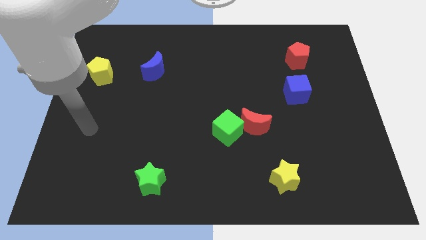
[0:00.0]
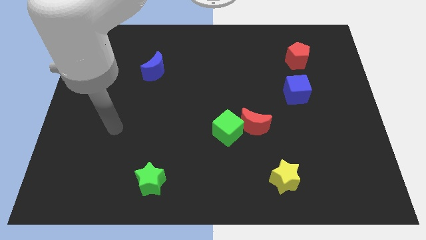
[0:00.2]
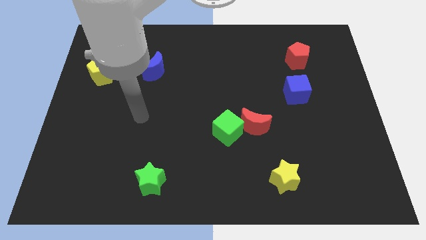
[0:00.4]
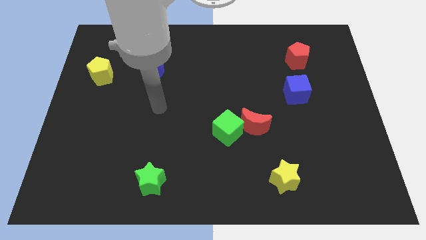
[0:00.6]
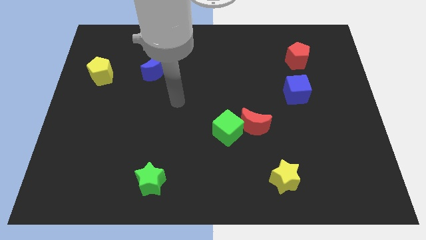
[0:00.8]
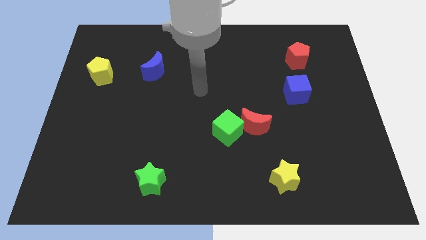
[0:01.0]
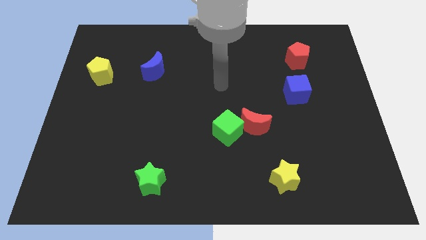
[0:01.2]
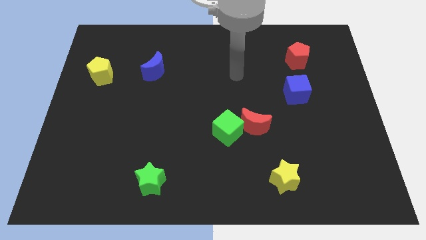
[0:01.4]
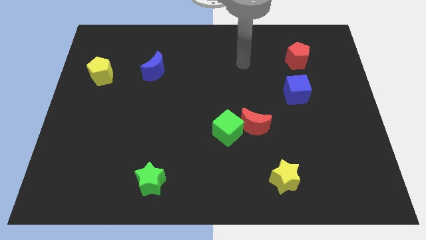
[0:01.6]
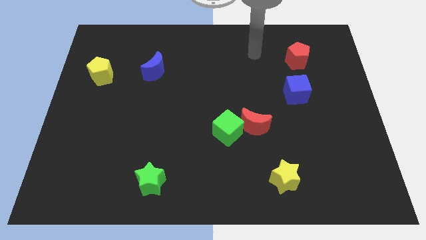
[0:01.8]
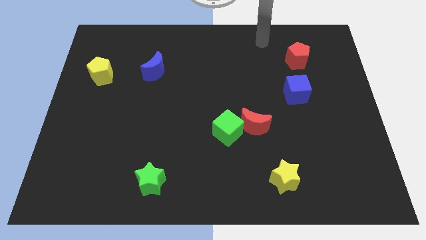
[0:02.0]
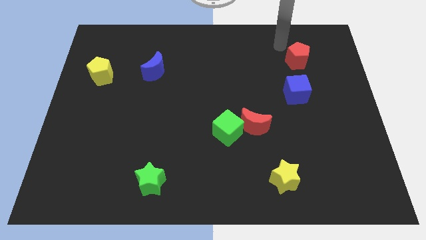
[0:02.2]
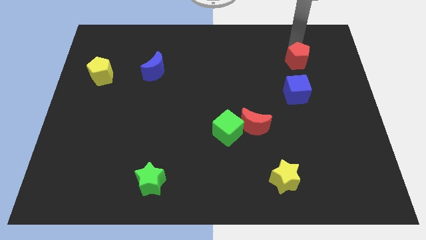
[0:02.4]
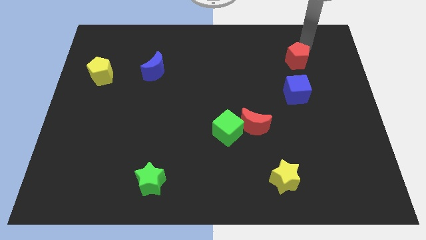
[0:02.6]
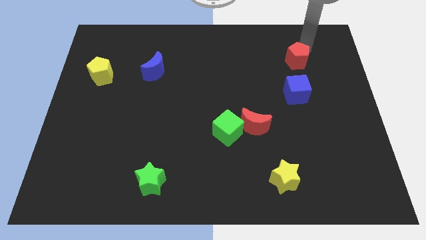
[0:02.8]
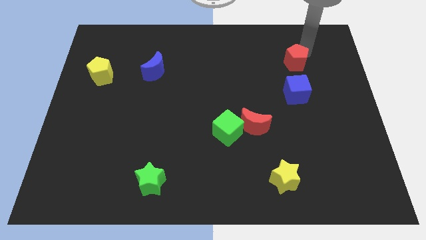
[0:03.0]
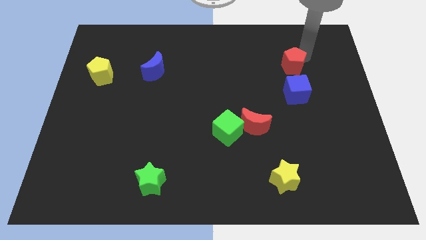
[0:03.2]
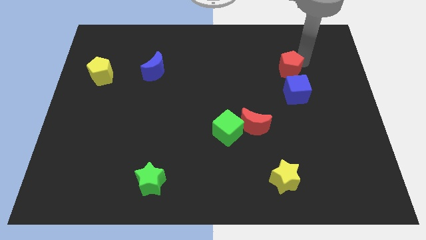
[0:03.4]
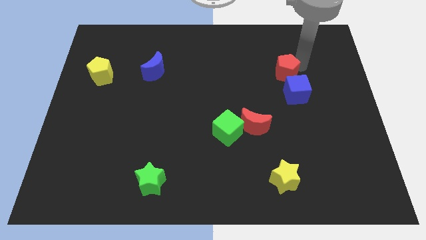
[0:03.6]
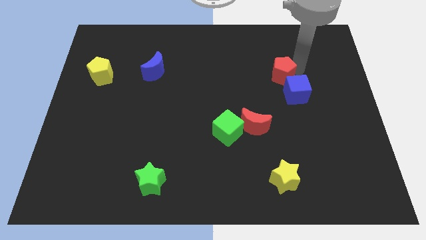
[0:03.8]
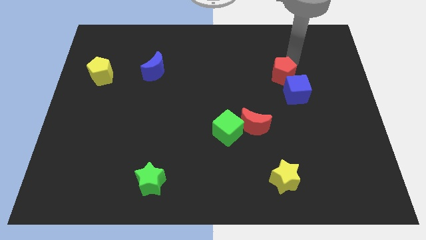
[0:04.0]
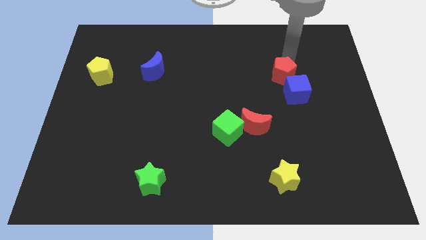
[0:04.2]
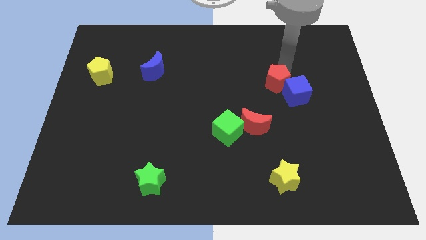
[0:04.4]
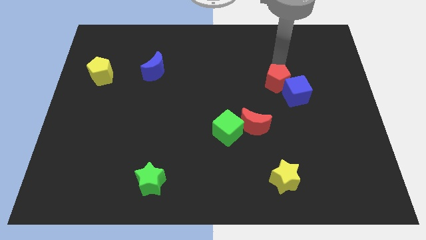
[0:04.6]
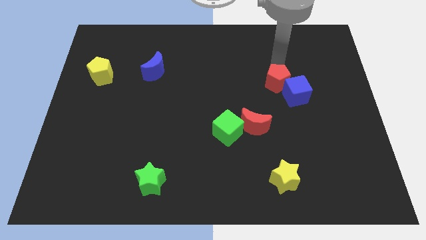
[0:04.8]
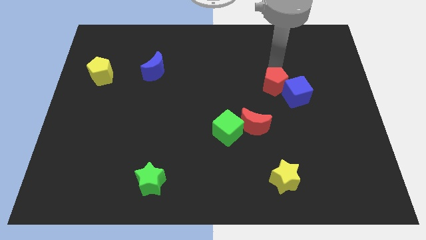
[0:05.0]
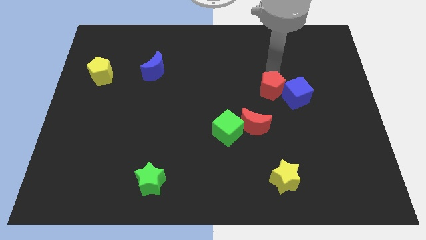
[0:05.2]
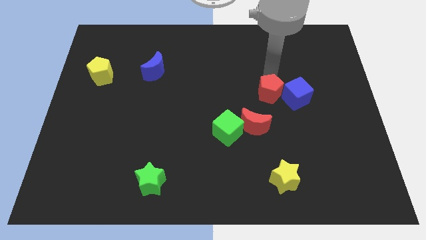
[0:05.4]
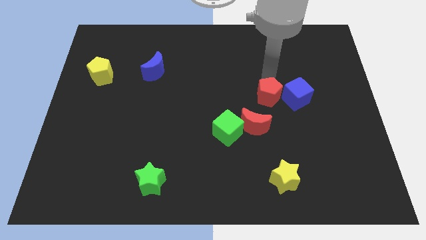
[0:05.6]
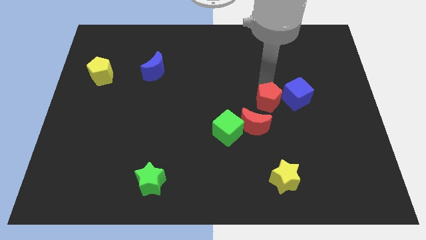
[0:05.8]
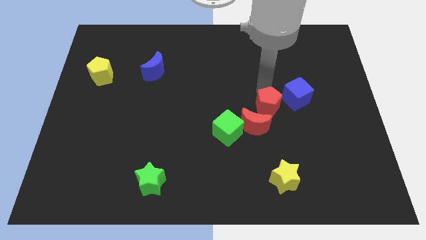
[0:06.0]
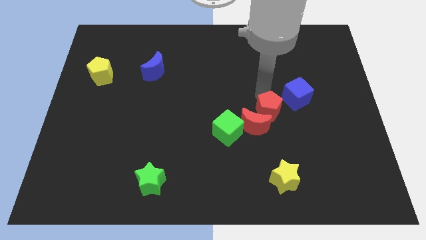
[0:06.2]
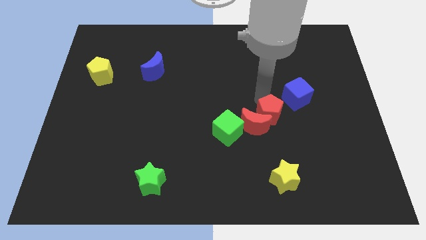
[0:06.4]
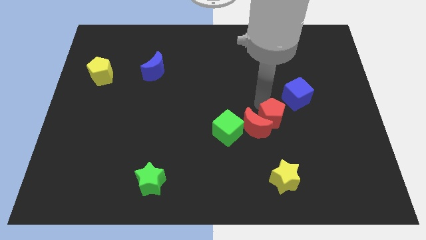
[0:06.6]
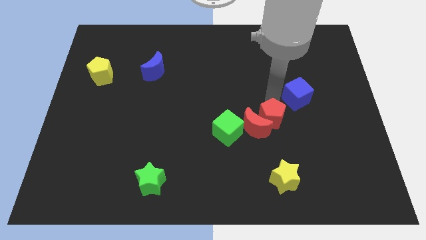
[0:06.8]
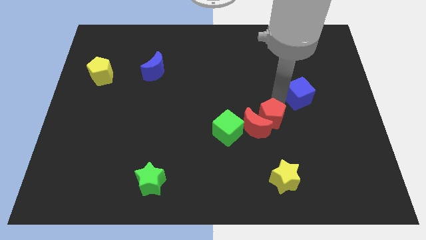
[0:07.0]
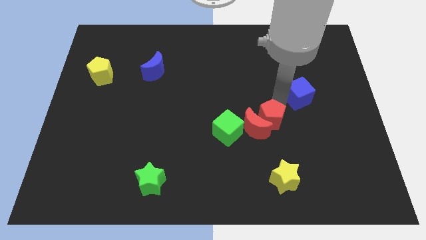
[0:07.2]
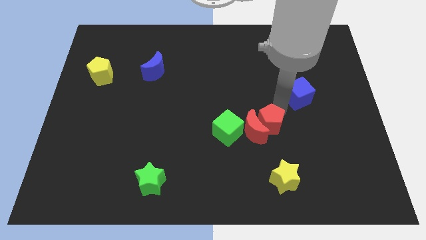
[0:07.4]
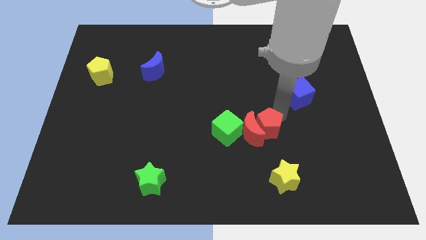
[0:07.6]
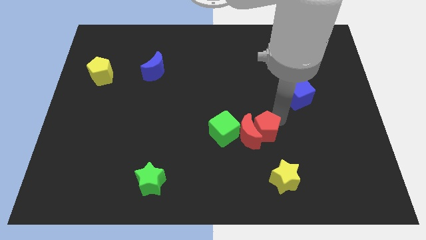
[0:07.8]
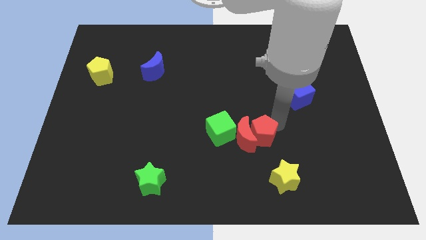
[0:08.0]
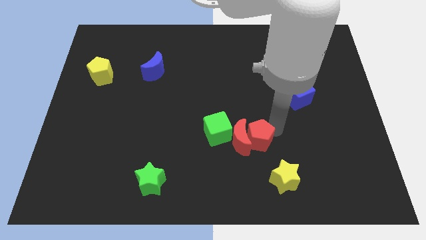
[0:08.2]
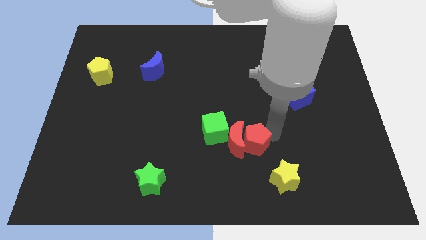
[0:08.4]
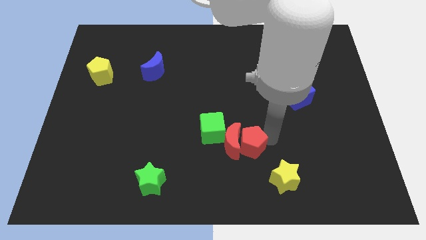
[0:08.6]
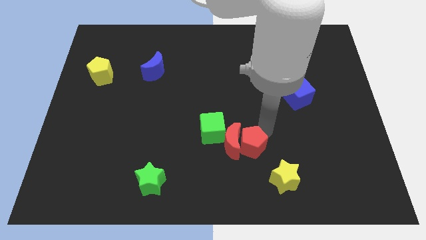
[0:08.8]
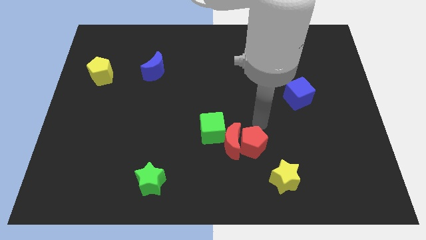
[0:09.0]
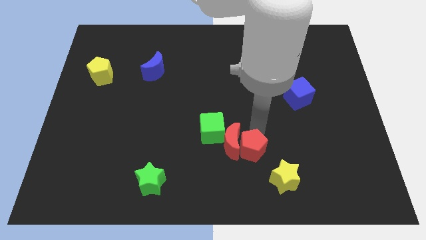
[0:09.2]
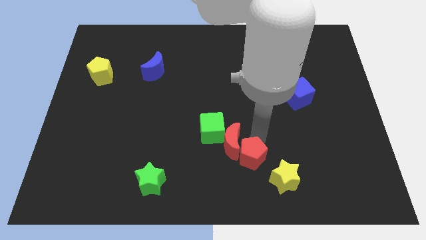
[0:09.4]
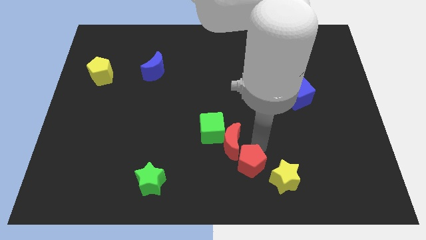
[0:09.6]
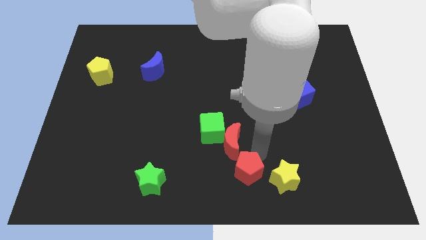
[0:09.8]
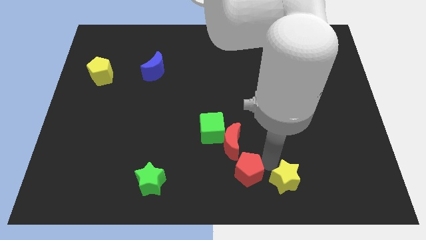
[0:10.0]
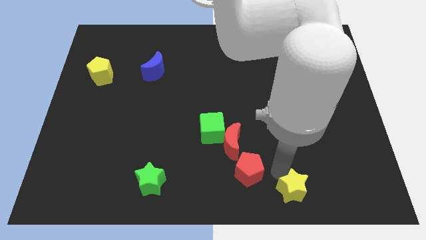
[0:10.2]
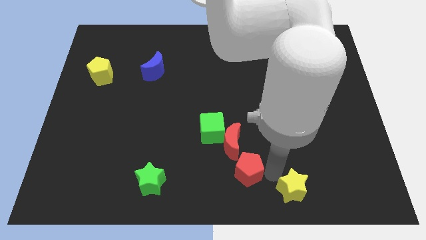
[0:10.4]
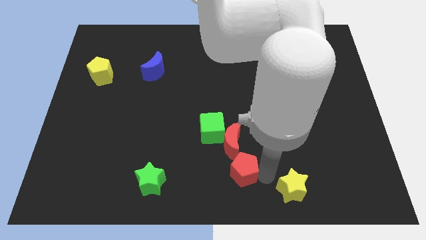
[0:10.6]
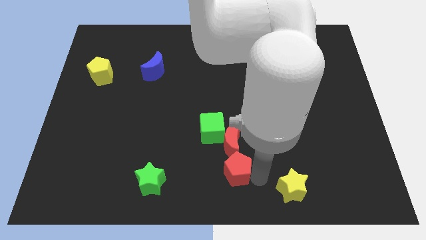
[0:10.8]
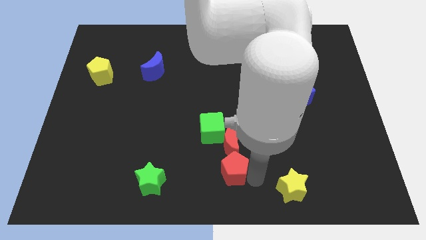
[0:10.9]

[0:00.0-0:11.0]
push the red pentagon to the bottom of the green cube

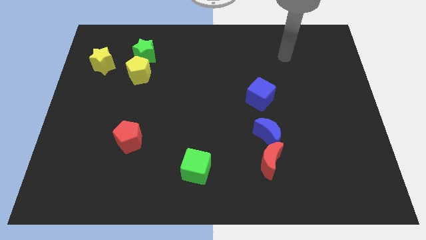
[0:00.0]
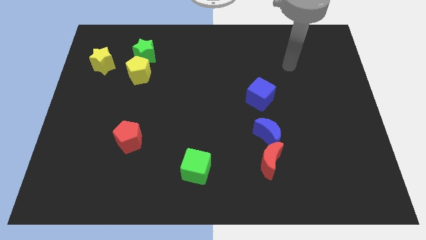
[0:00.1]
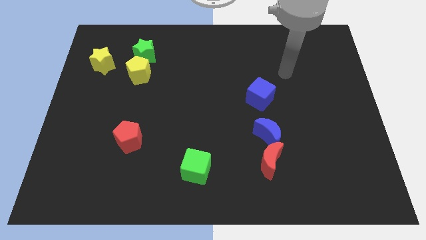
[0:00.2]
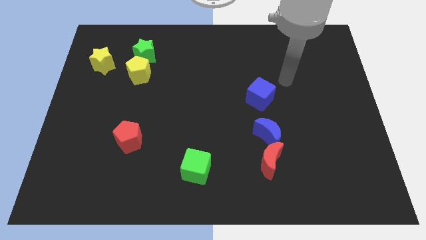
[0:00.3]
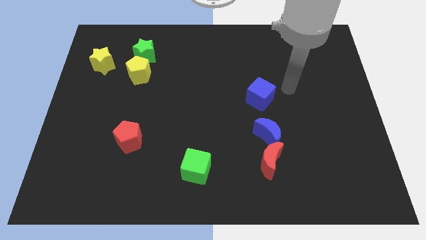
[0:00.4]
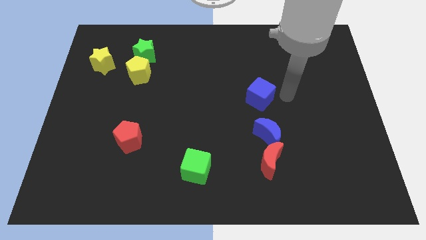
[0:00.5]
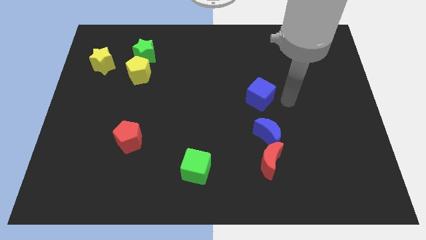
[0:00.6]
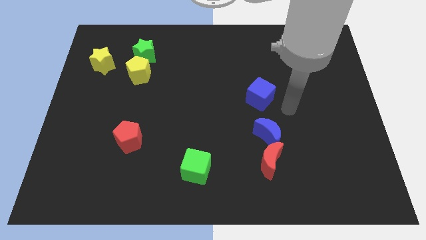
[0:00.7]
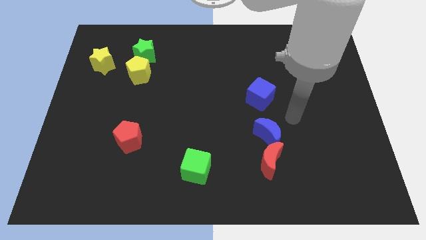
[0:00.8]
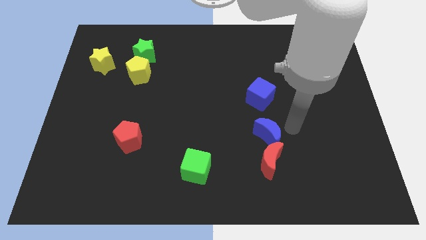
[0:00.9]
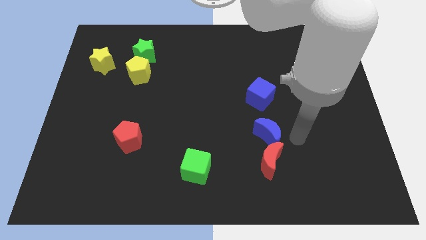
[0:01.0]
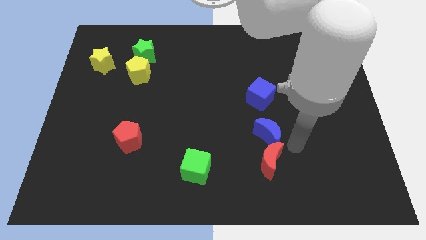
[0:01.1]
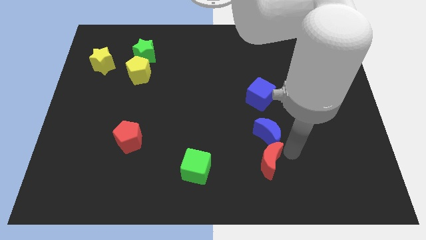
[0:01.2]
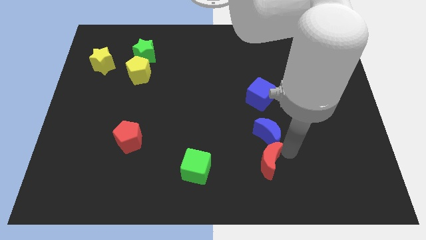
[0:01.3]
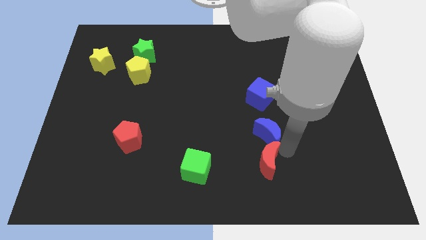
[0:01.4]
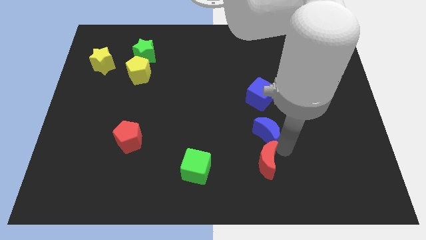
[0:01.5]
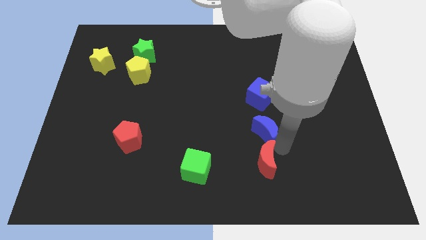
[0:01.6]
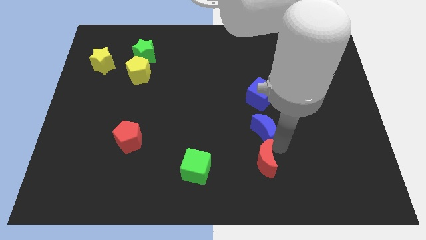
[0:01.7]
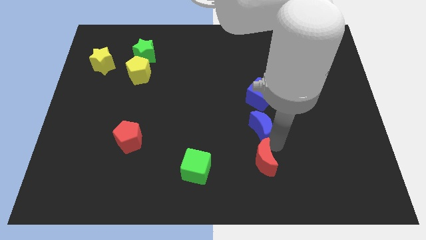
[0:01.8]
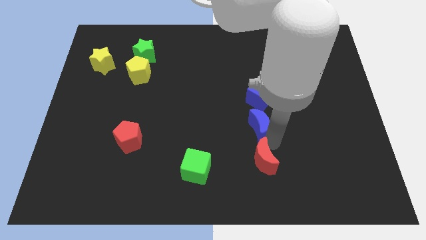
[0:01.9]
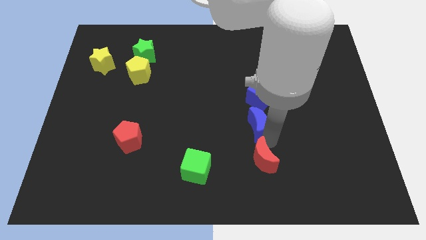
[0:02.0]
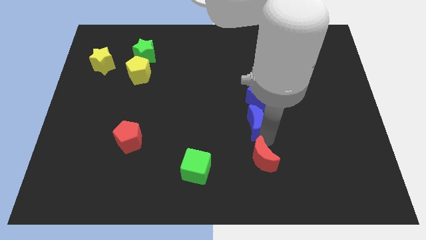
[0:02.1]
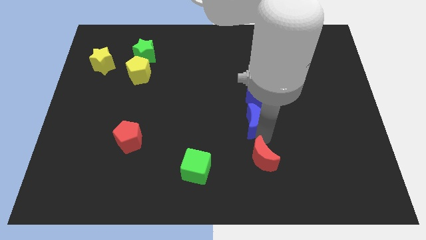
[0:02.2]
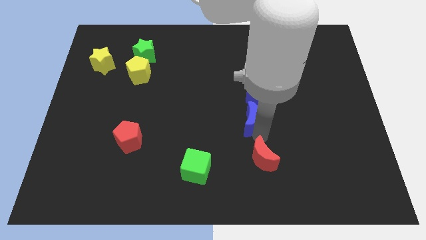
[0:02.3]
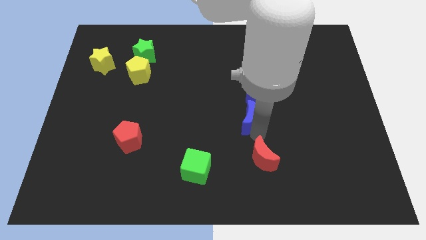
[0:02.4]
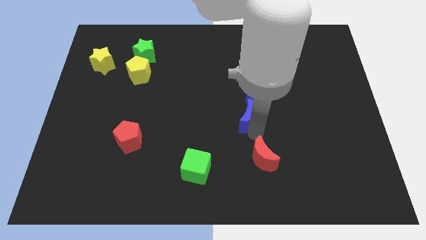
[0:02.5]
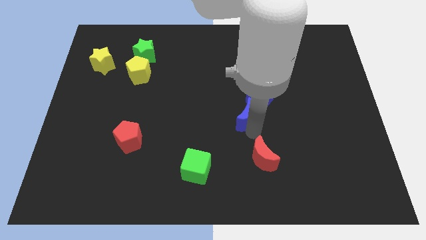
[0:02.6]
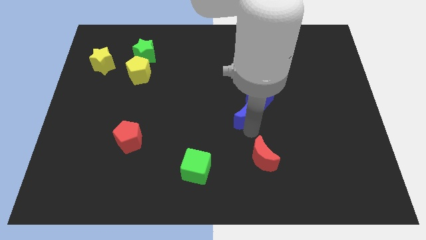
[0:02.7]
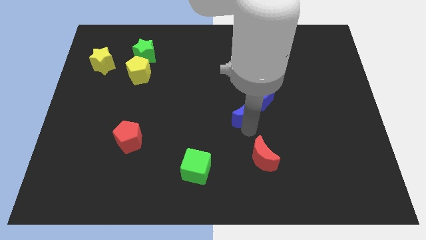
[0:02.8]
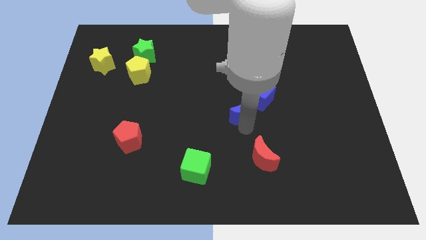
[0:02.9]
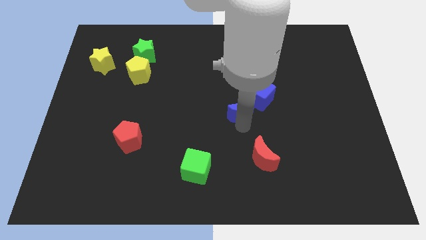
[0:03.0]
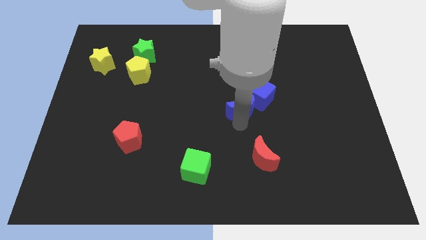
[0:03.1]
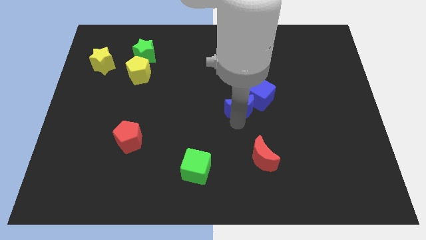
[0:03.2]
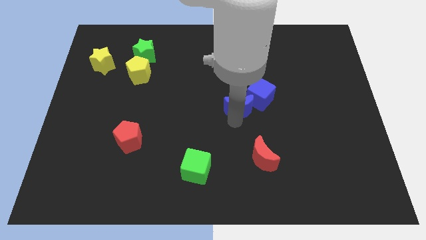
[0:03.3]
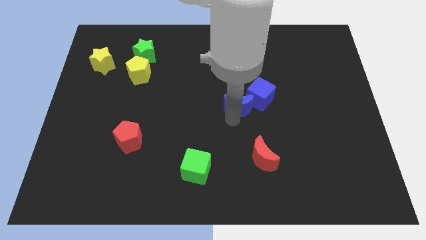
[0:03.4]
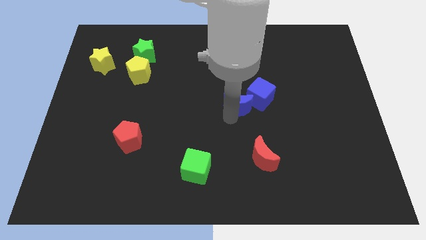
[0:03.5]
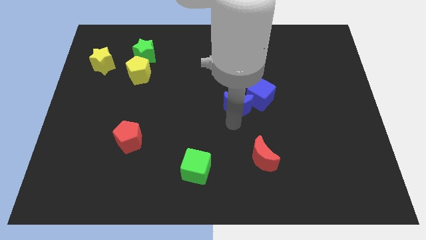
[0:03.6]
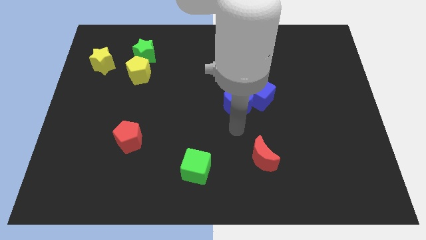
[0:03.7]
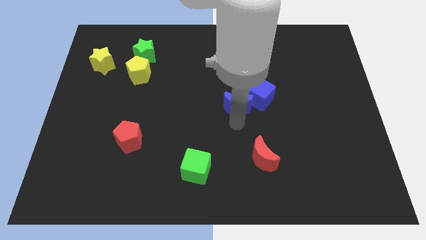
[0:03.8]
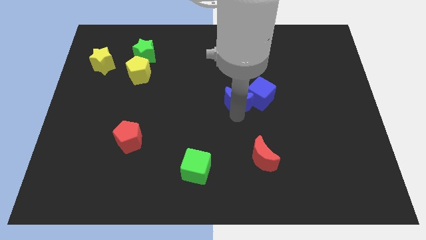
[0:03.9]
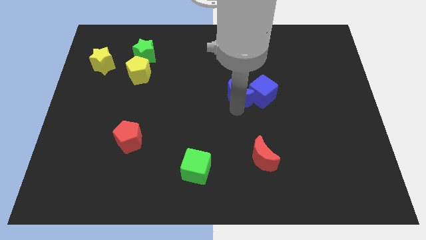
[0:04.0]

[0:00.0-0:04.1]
push the blue moon diagonally up and to the left of the blue cube
